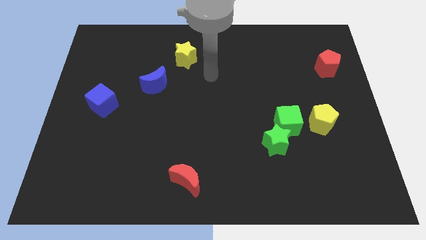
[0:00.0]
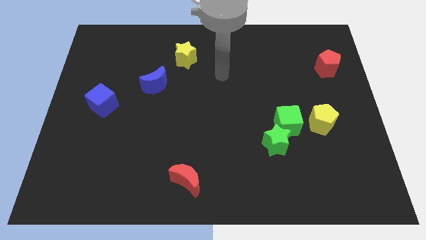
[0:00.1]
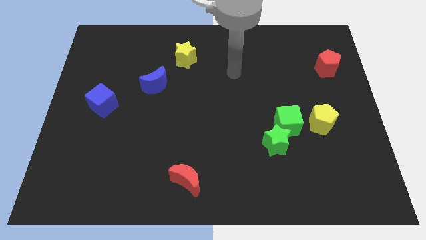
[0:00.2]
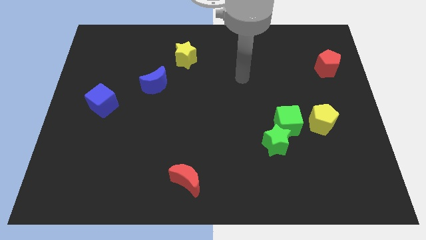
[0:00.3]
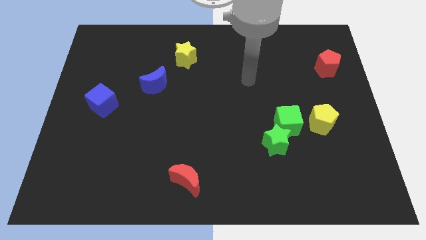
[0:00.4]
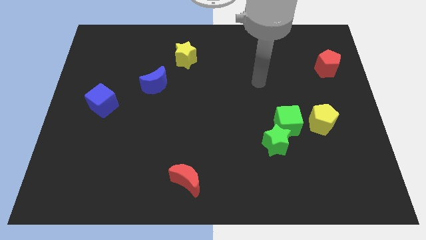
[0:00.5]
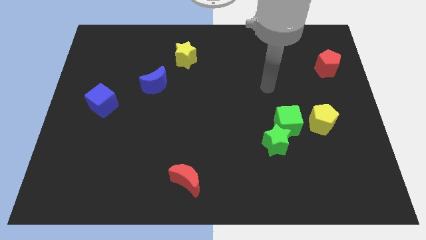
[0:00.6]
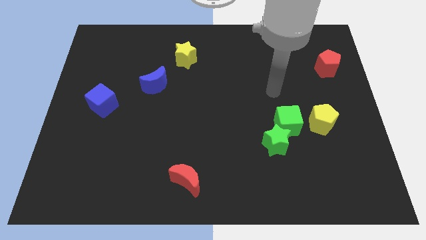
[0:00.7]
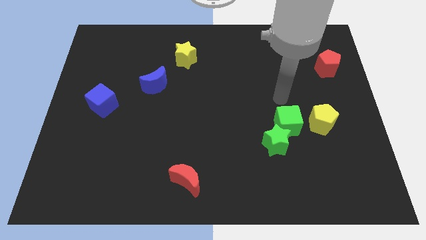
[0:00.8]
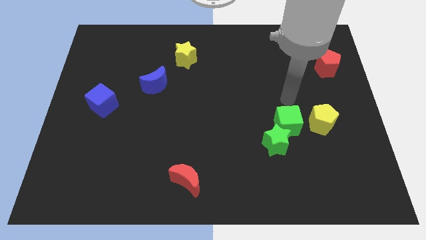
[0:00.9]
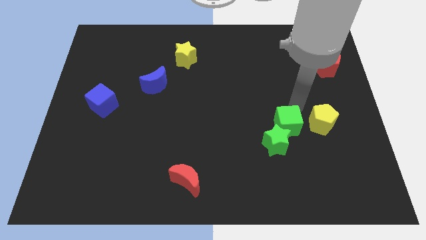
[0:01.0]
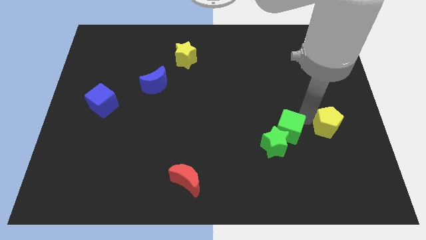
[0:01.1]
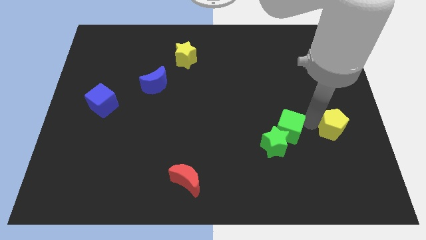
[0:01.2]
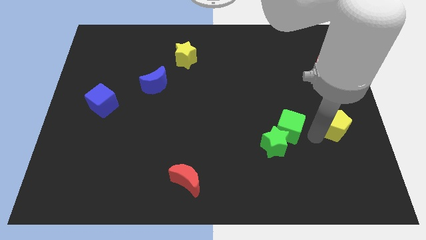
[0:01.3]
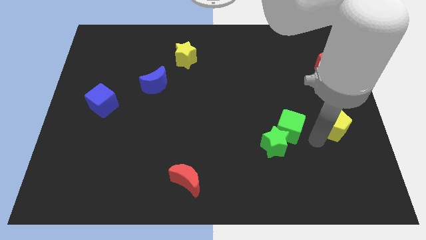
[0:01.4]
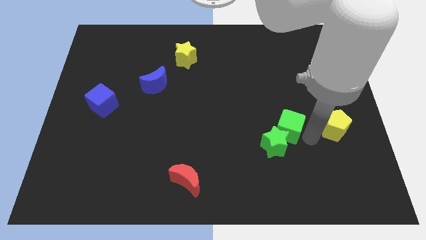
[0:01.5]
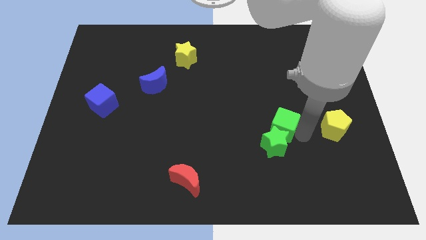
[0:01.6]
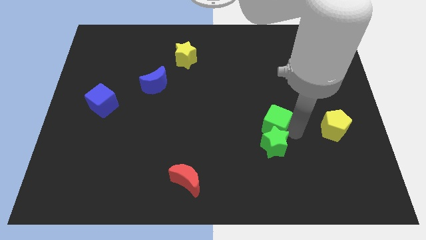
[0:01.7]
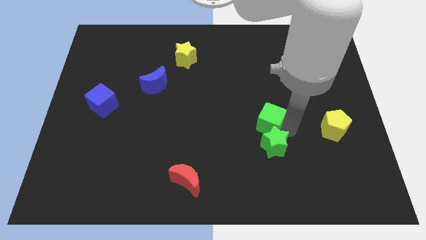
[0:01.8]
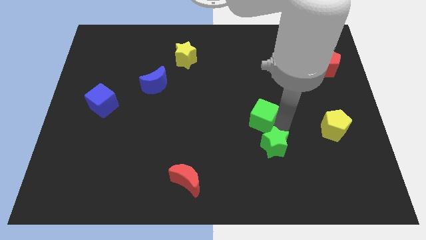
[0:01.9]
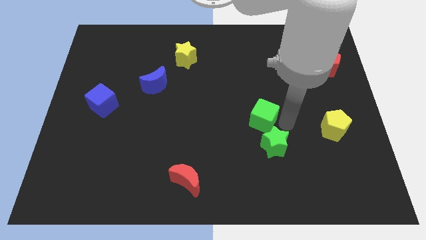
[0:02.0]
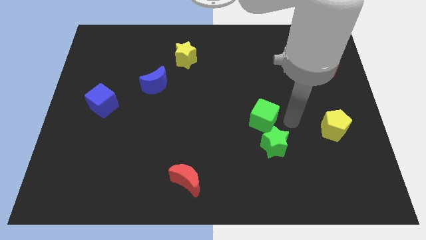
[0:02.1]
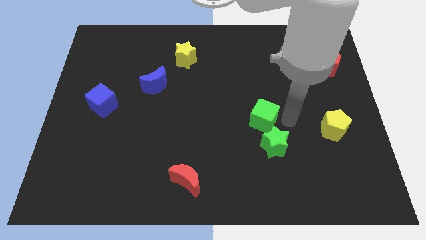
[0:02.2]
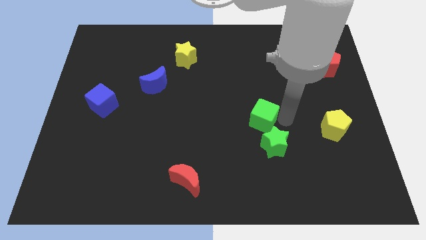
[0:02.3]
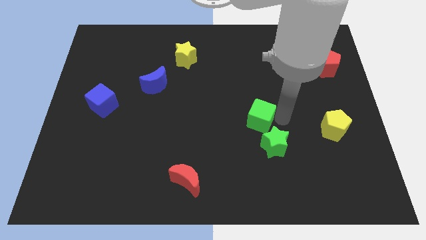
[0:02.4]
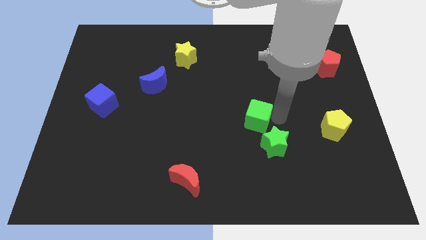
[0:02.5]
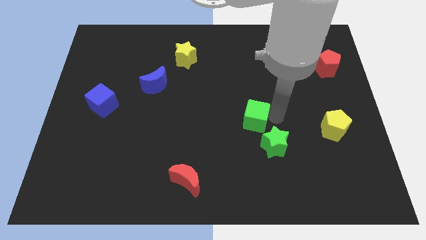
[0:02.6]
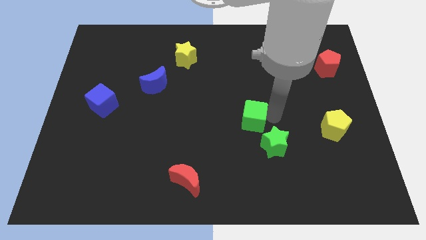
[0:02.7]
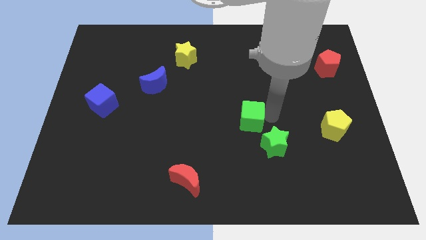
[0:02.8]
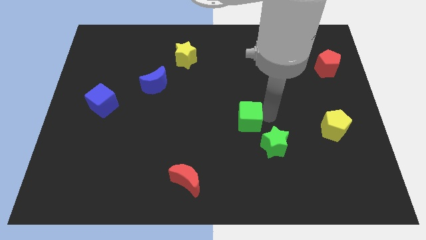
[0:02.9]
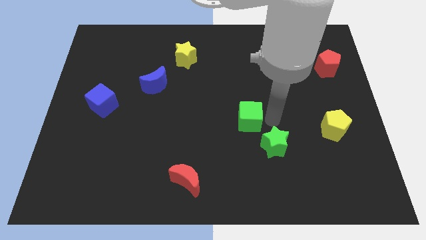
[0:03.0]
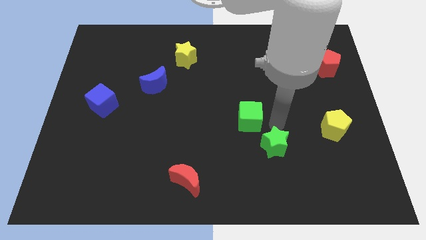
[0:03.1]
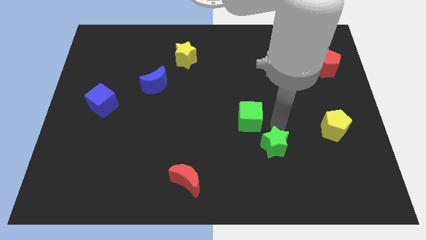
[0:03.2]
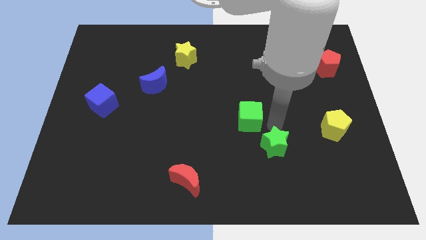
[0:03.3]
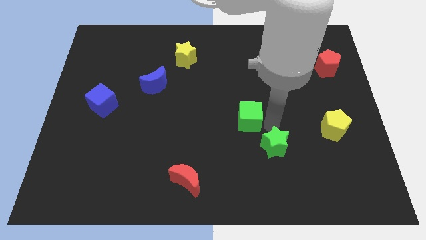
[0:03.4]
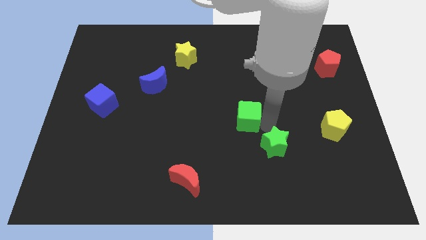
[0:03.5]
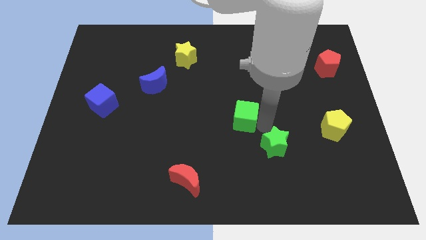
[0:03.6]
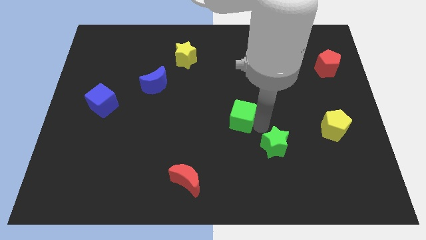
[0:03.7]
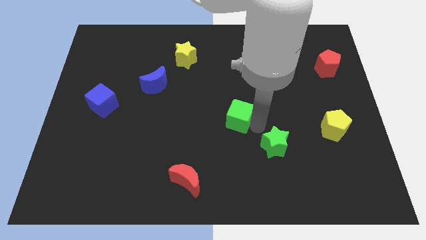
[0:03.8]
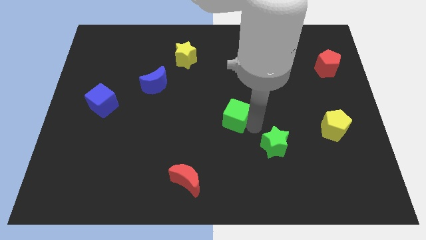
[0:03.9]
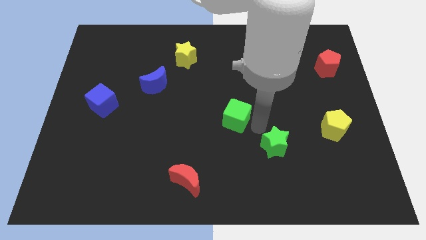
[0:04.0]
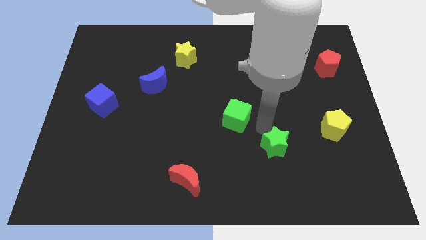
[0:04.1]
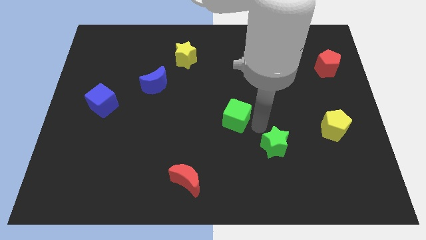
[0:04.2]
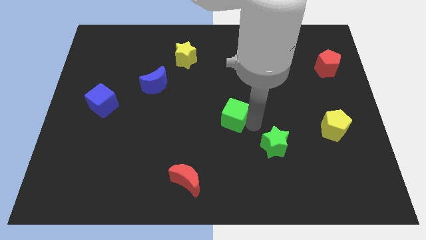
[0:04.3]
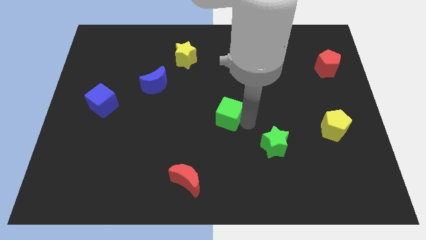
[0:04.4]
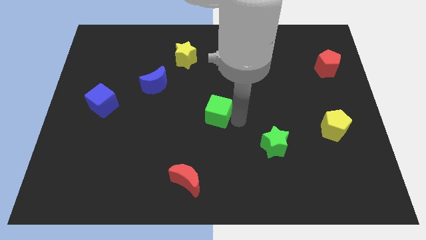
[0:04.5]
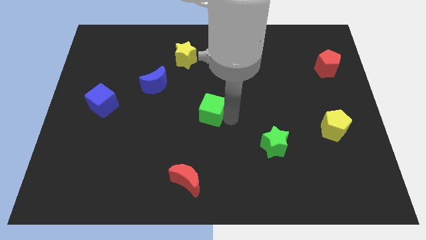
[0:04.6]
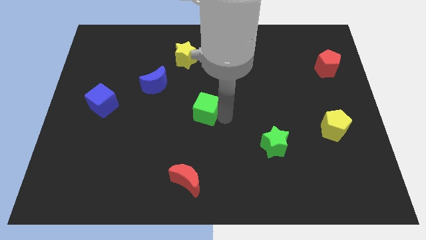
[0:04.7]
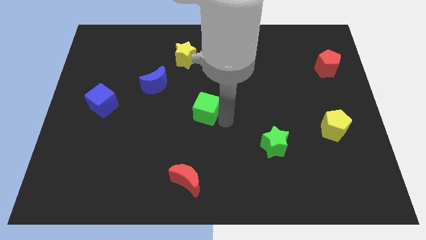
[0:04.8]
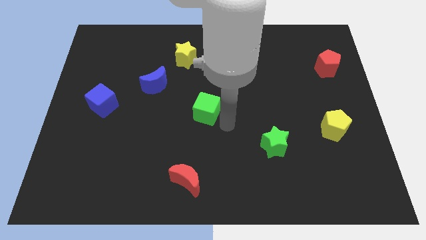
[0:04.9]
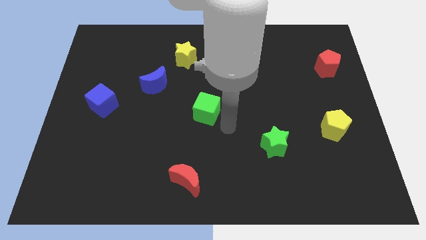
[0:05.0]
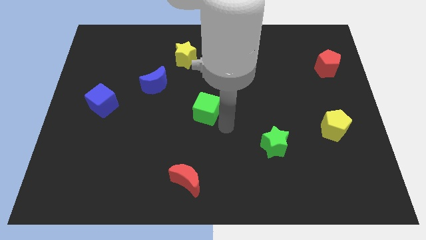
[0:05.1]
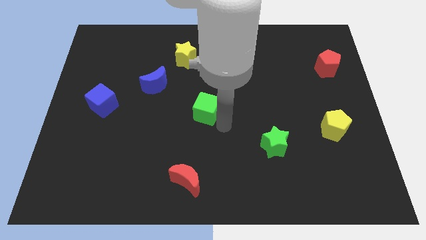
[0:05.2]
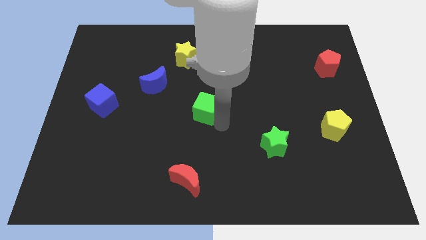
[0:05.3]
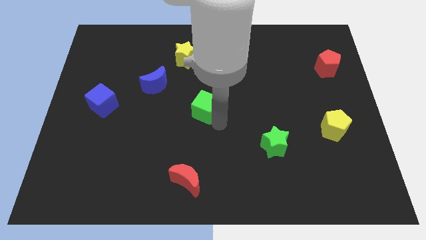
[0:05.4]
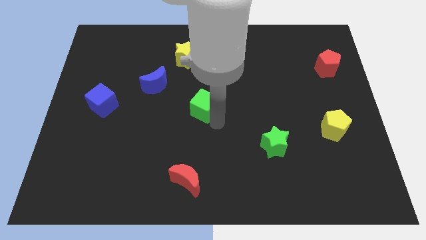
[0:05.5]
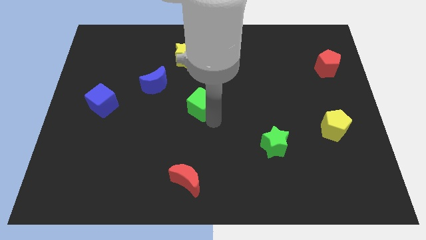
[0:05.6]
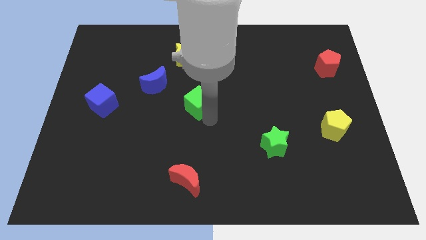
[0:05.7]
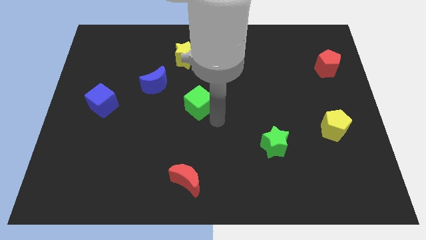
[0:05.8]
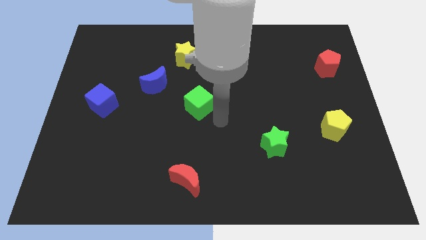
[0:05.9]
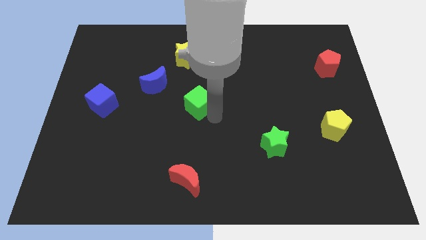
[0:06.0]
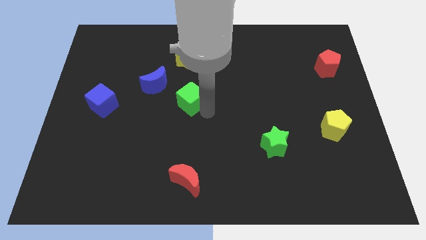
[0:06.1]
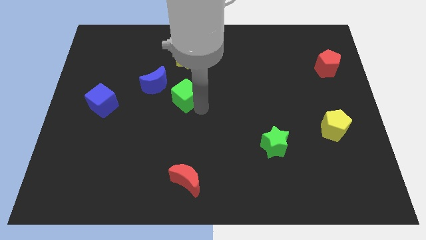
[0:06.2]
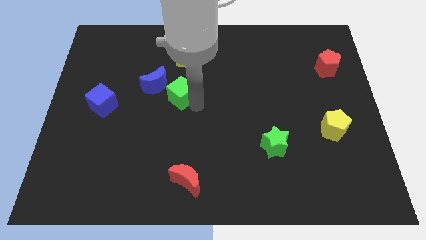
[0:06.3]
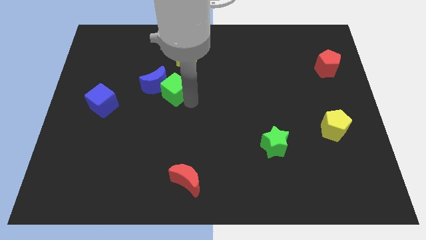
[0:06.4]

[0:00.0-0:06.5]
put the green cube close to the blue moon

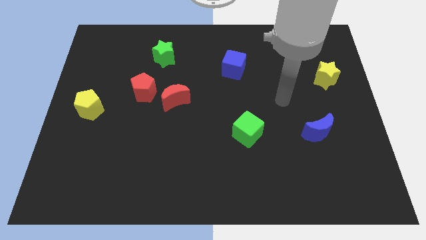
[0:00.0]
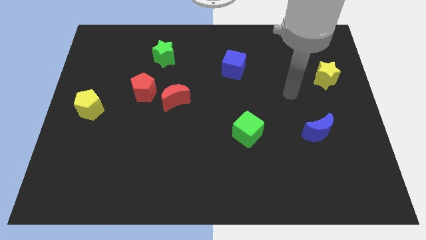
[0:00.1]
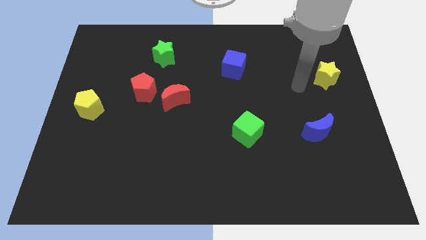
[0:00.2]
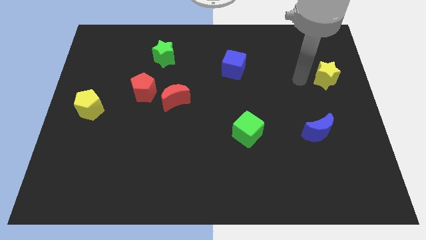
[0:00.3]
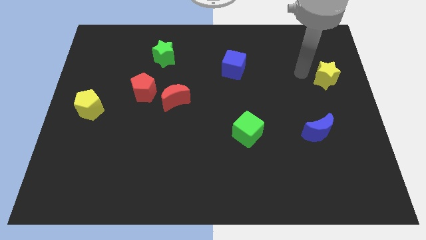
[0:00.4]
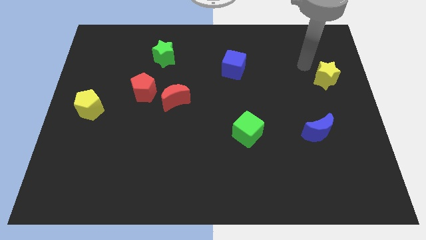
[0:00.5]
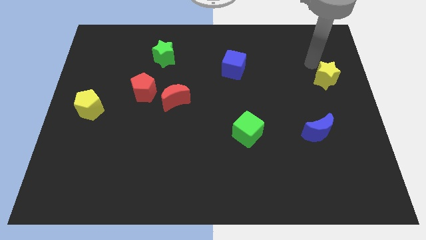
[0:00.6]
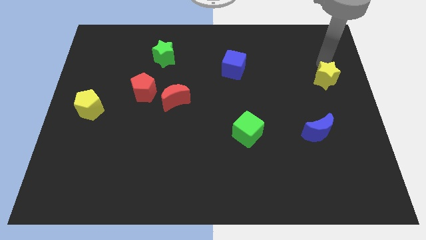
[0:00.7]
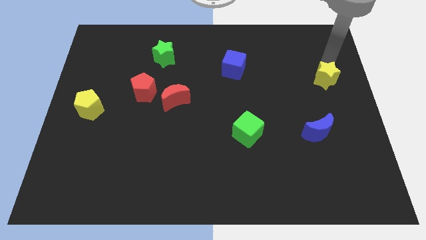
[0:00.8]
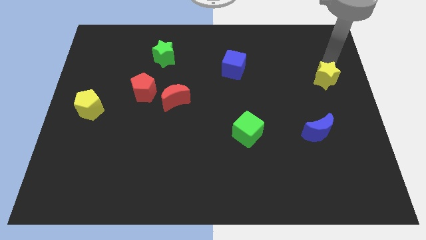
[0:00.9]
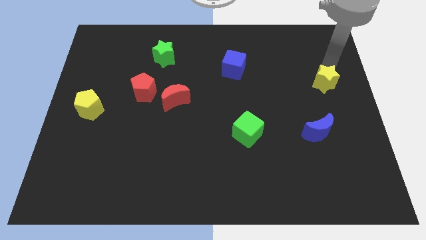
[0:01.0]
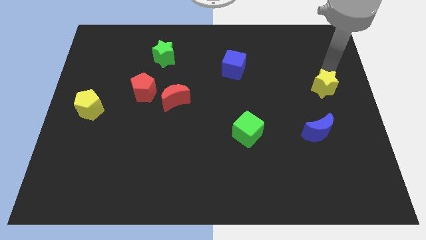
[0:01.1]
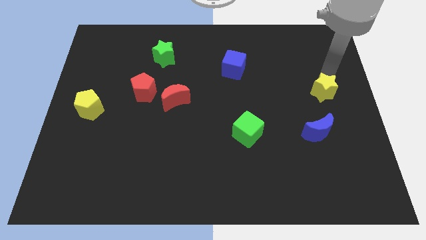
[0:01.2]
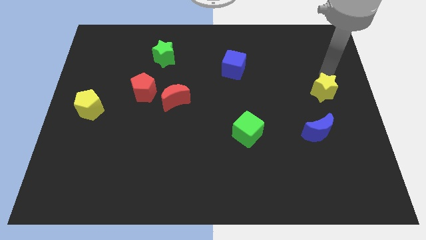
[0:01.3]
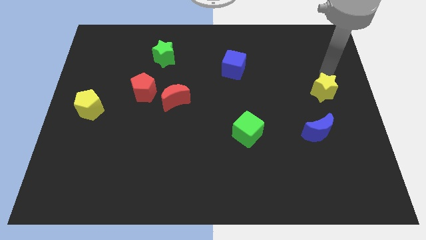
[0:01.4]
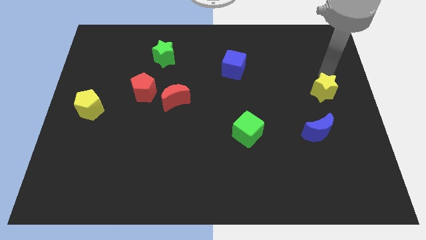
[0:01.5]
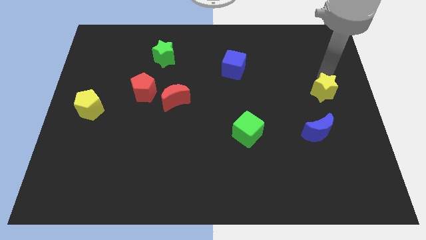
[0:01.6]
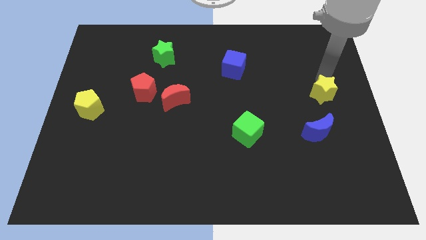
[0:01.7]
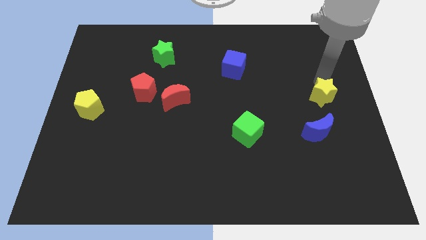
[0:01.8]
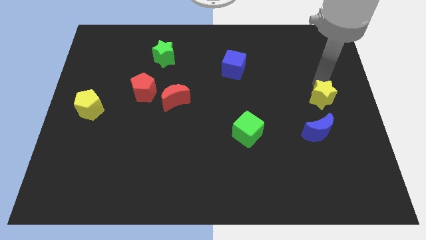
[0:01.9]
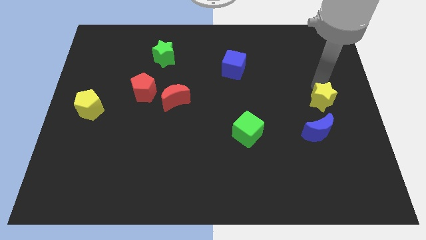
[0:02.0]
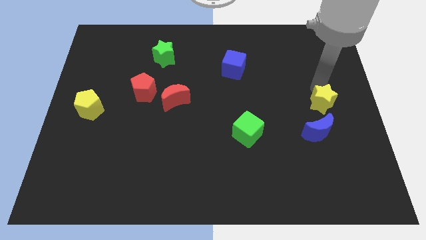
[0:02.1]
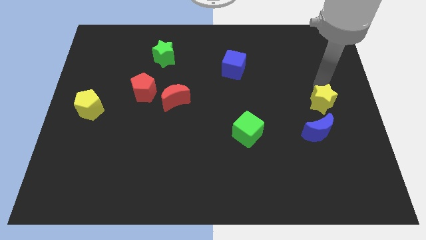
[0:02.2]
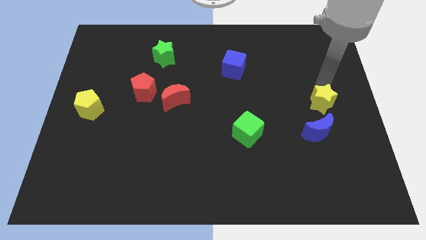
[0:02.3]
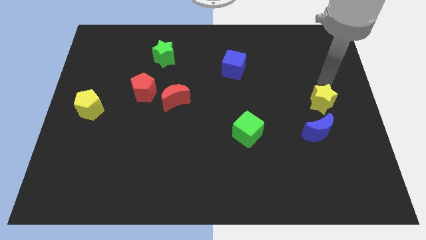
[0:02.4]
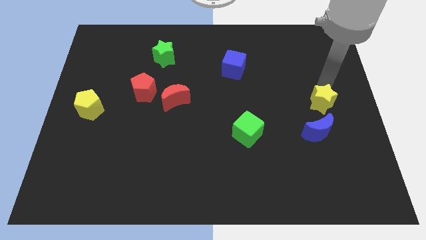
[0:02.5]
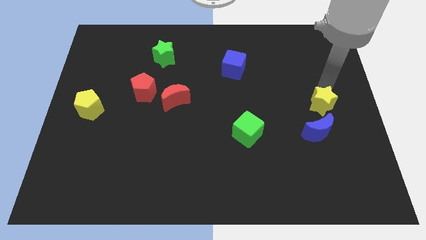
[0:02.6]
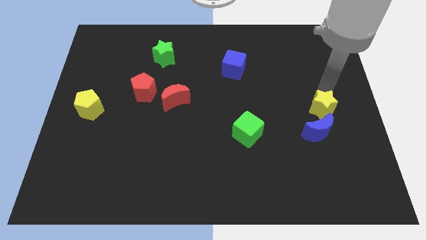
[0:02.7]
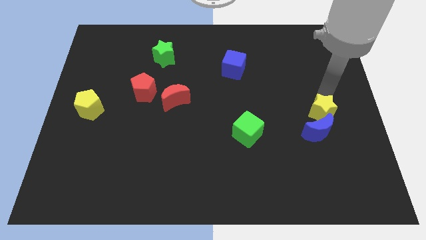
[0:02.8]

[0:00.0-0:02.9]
push the yellow star close to the blue moon
